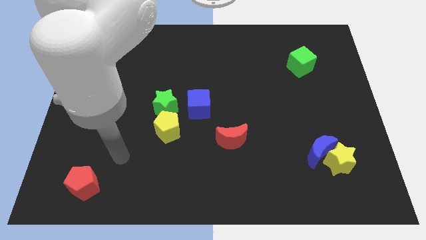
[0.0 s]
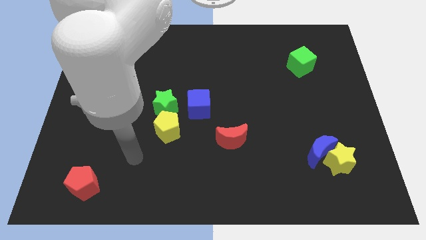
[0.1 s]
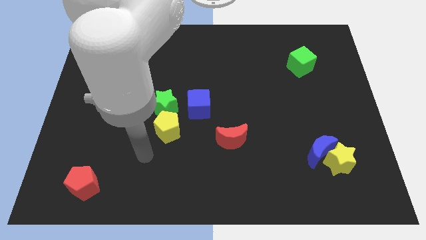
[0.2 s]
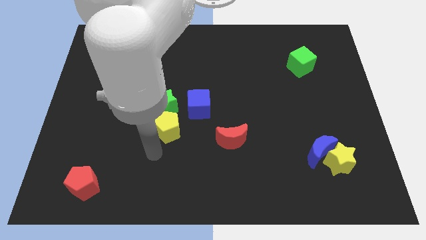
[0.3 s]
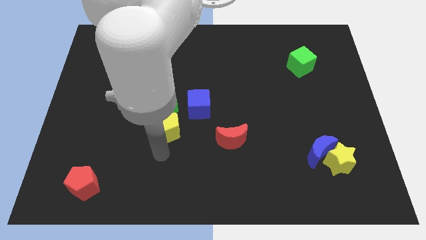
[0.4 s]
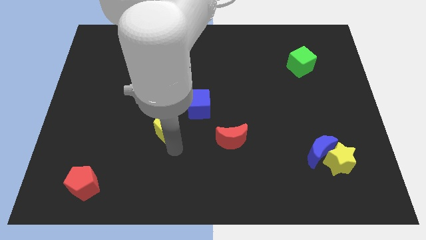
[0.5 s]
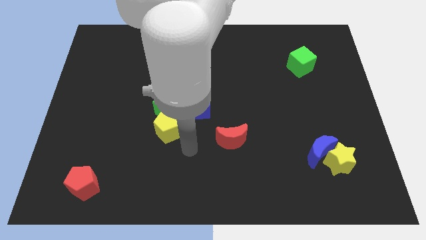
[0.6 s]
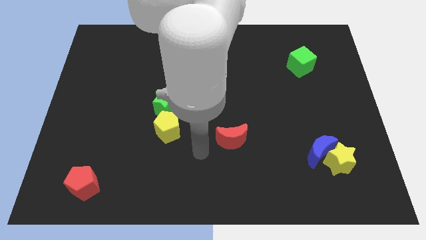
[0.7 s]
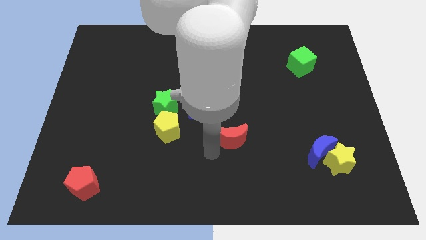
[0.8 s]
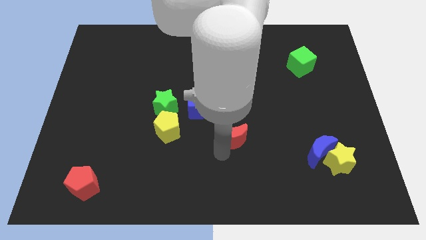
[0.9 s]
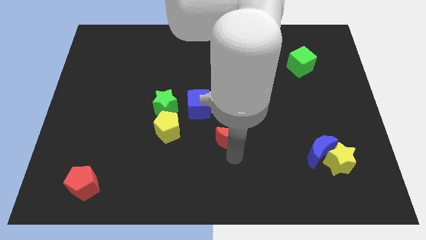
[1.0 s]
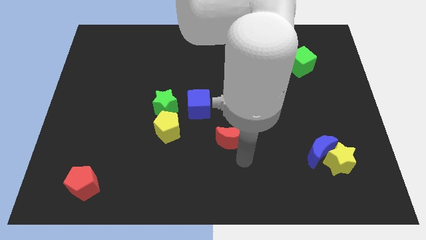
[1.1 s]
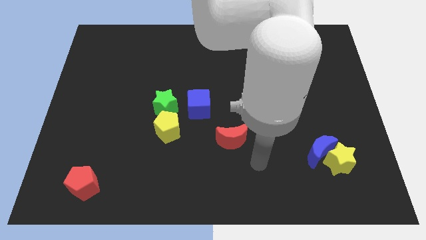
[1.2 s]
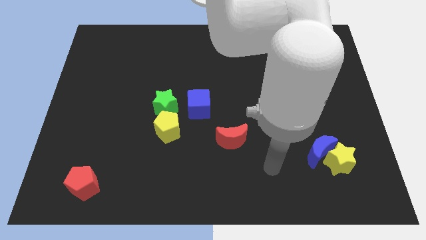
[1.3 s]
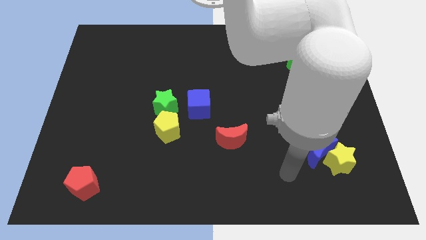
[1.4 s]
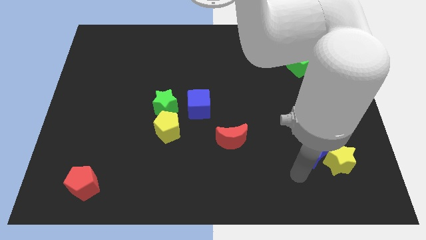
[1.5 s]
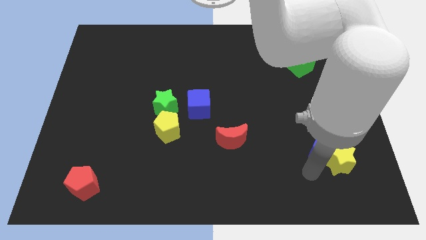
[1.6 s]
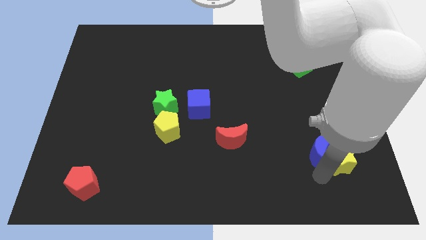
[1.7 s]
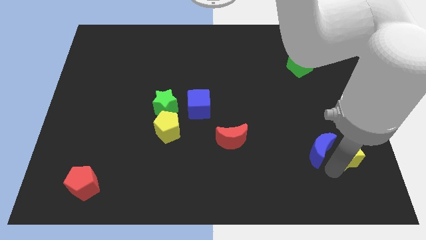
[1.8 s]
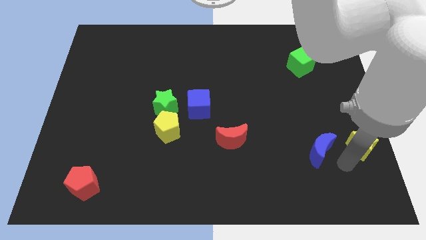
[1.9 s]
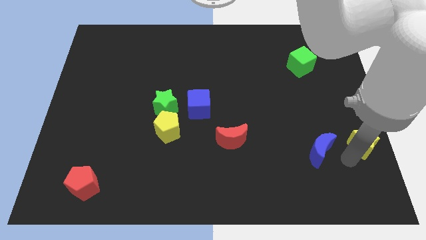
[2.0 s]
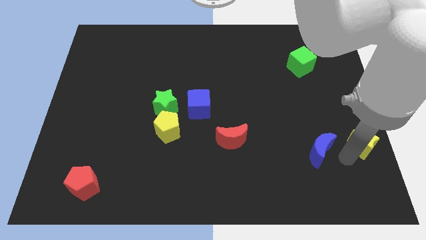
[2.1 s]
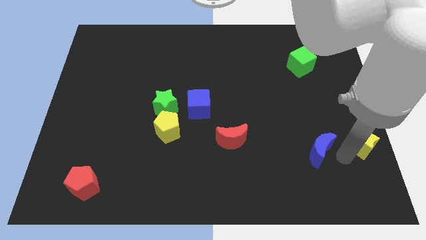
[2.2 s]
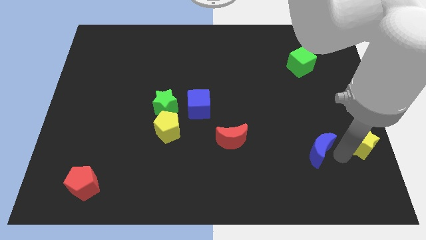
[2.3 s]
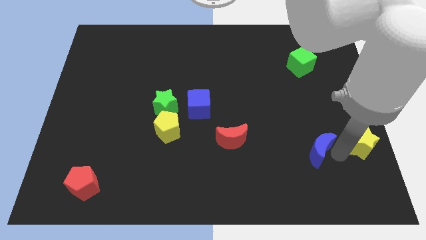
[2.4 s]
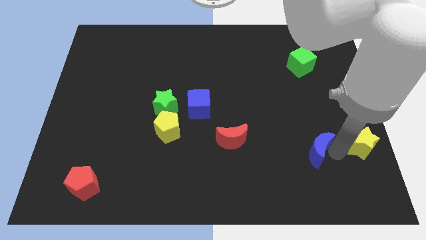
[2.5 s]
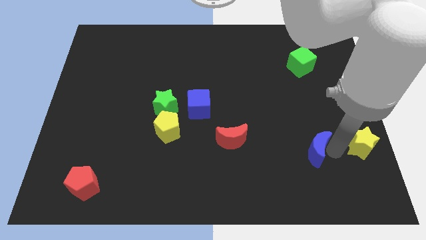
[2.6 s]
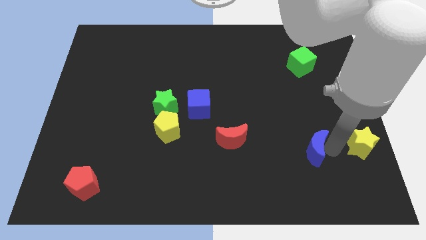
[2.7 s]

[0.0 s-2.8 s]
move the blue moon away from the yellow star

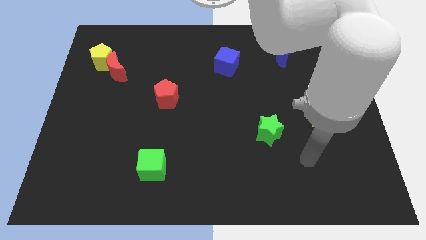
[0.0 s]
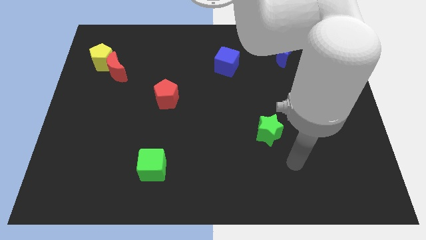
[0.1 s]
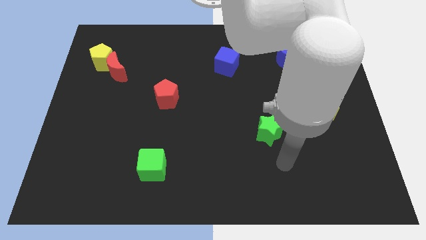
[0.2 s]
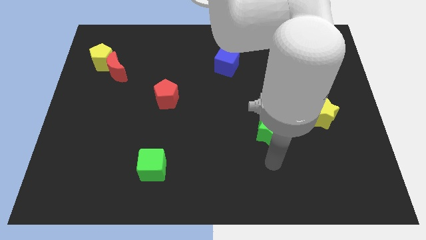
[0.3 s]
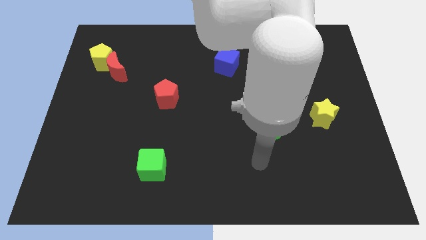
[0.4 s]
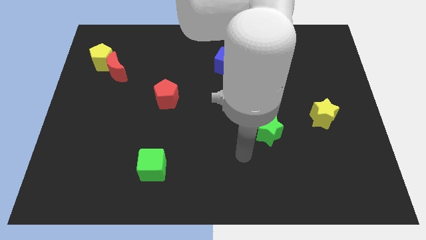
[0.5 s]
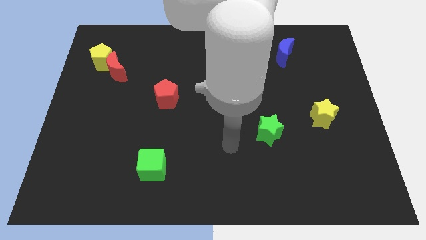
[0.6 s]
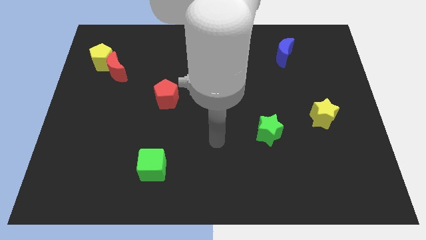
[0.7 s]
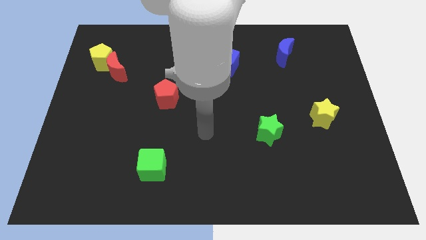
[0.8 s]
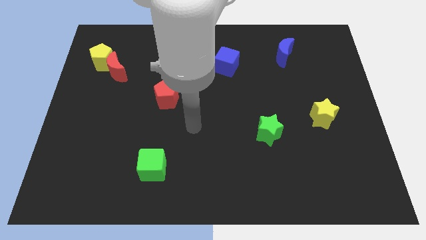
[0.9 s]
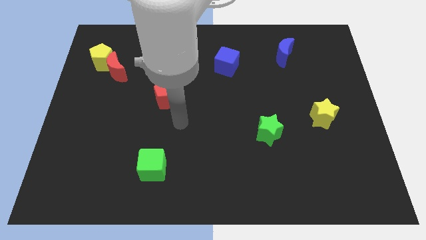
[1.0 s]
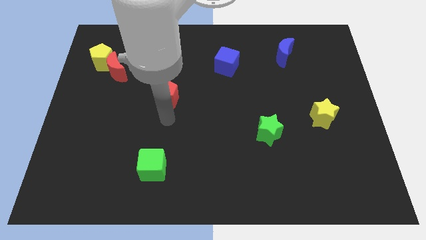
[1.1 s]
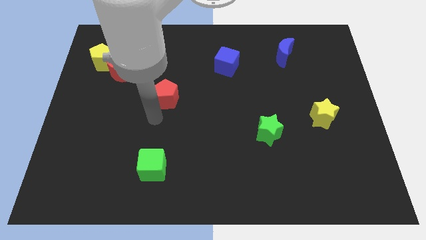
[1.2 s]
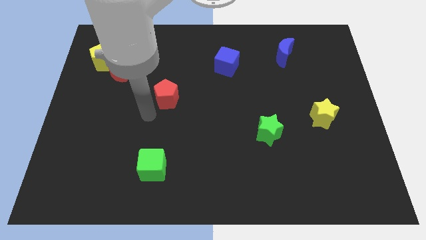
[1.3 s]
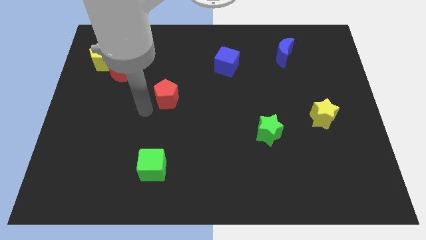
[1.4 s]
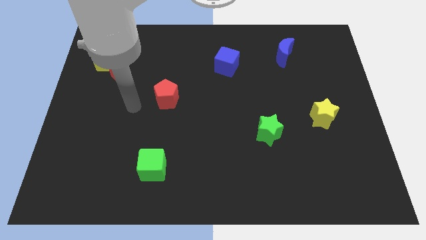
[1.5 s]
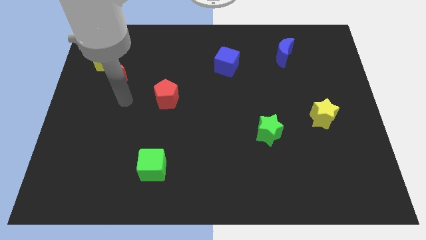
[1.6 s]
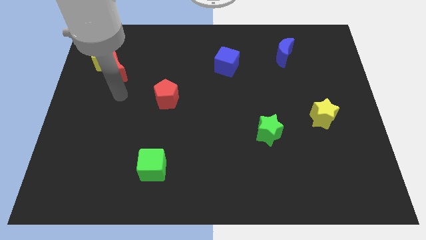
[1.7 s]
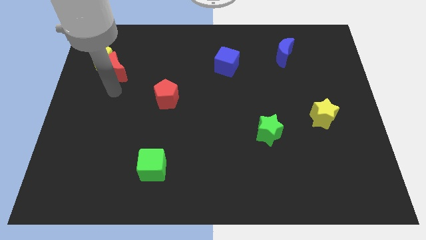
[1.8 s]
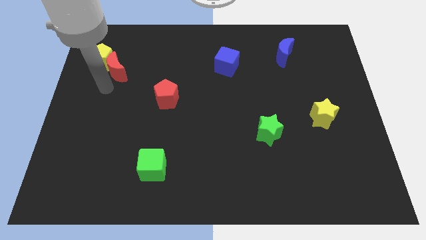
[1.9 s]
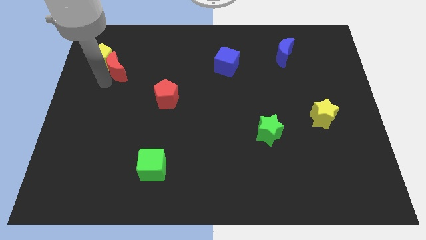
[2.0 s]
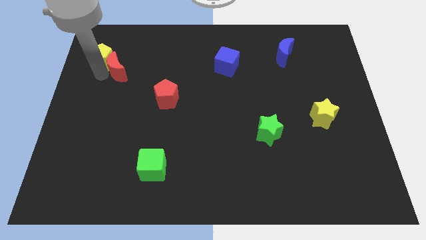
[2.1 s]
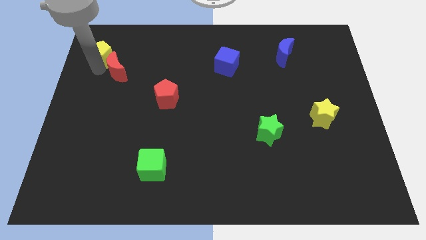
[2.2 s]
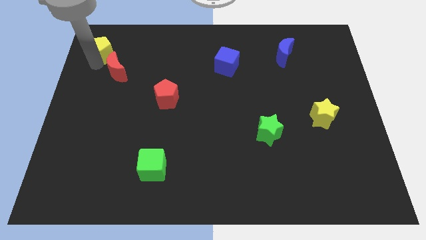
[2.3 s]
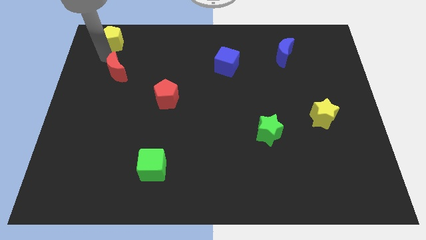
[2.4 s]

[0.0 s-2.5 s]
separate the red moon from the yellow pentagon

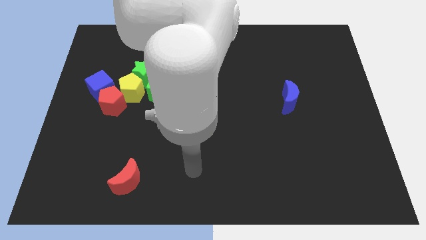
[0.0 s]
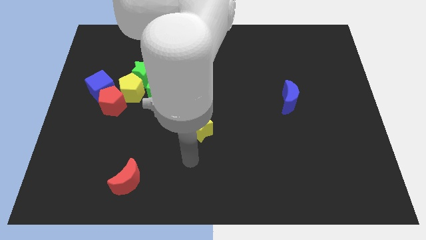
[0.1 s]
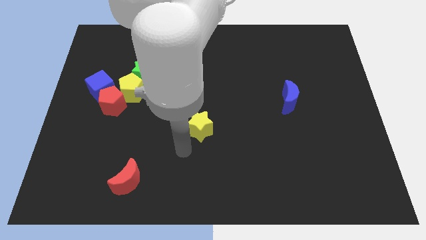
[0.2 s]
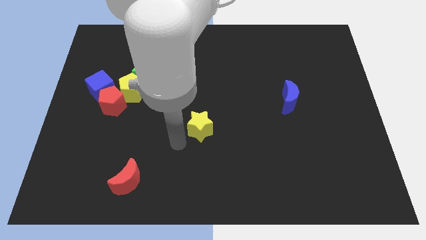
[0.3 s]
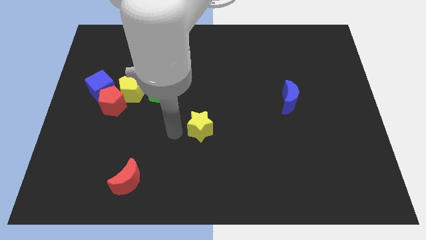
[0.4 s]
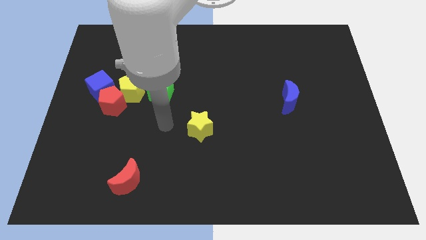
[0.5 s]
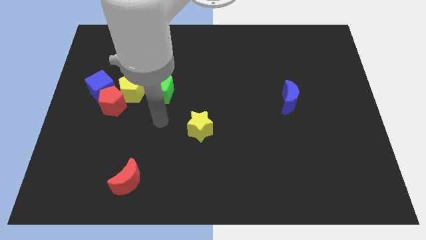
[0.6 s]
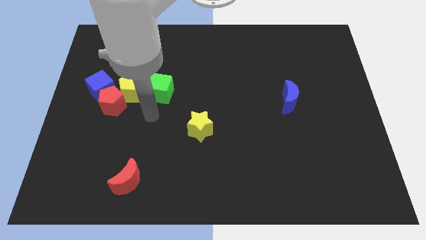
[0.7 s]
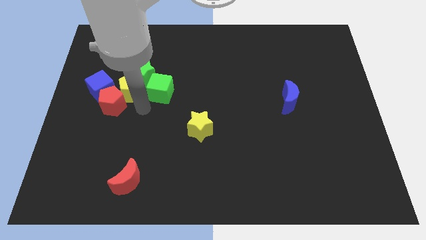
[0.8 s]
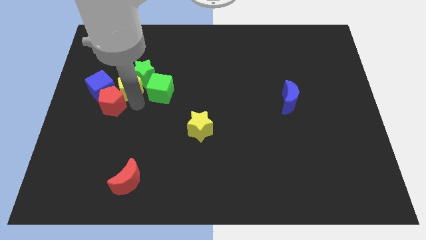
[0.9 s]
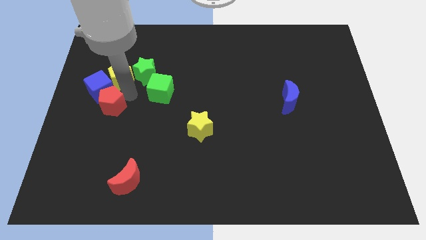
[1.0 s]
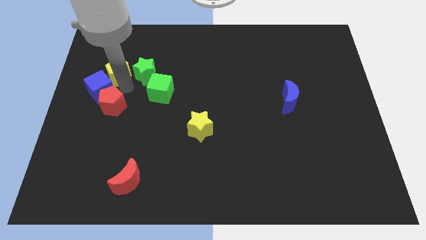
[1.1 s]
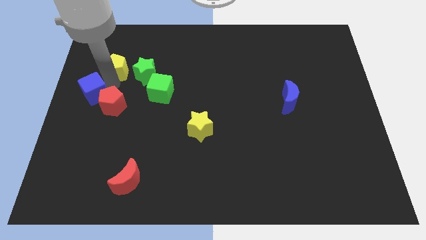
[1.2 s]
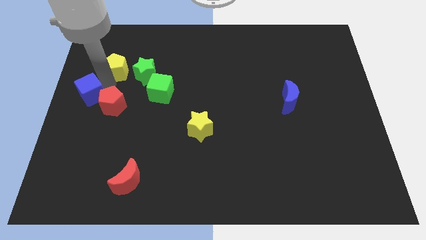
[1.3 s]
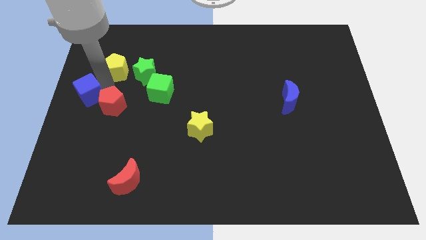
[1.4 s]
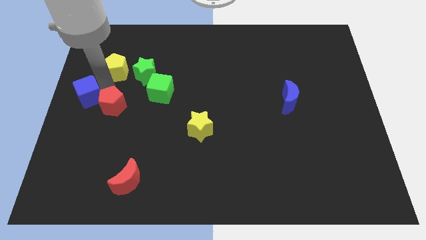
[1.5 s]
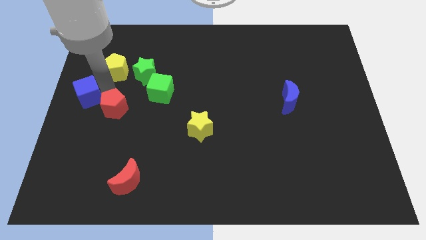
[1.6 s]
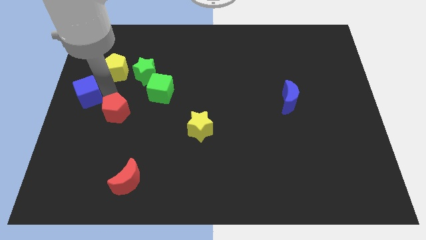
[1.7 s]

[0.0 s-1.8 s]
separate the red pentagon from the yellow pentagon and blue cube

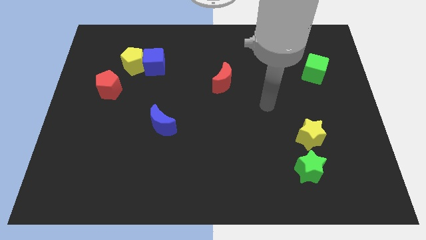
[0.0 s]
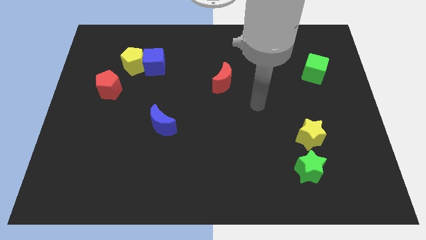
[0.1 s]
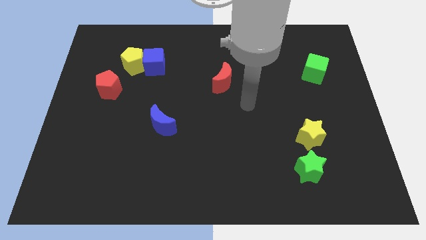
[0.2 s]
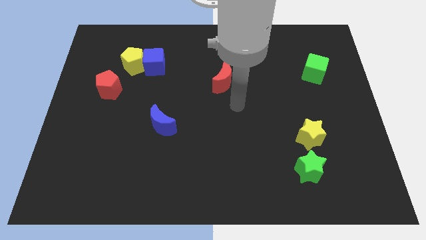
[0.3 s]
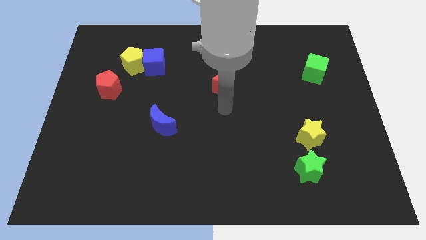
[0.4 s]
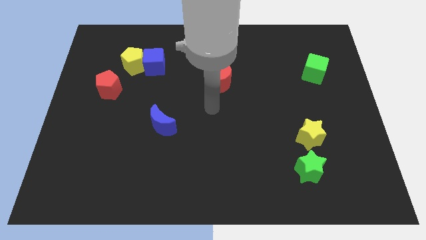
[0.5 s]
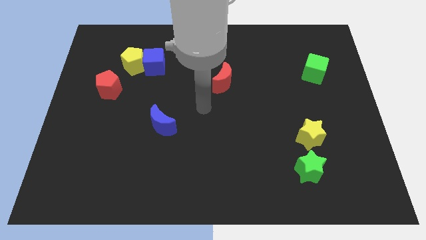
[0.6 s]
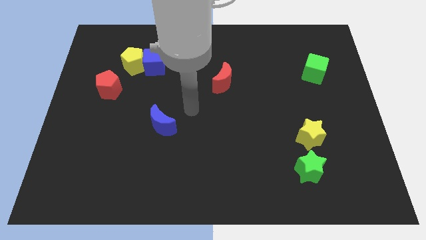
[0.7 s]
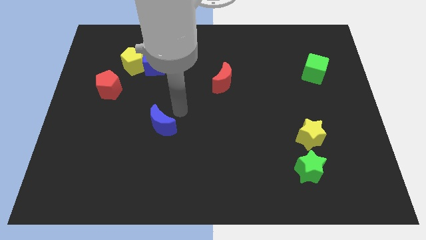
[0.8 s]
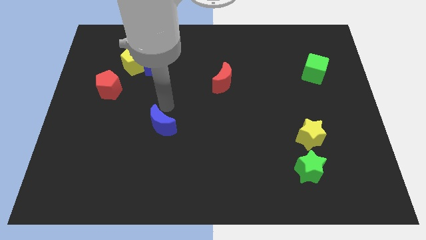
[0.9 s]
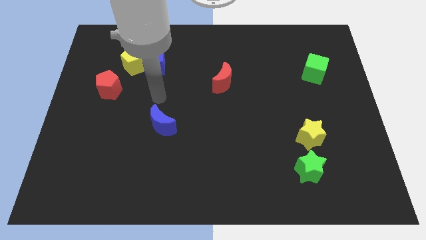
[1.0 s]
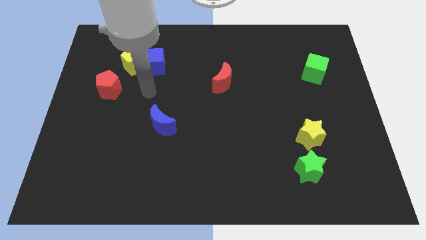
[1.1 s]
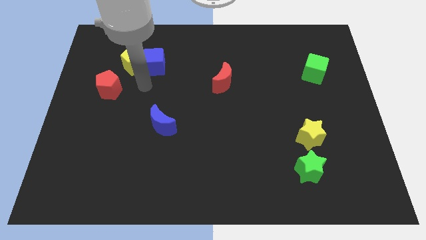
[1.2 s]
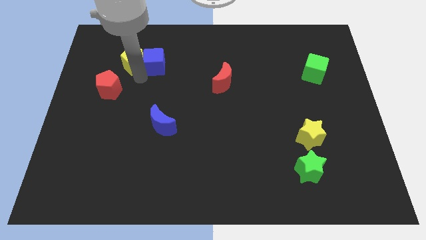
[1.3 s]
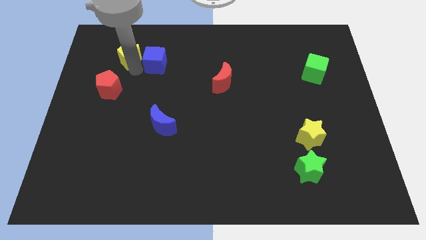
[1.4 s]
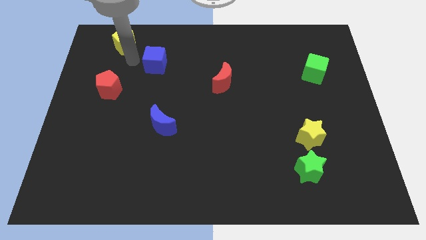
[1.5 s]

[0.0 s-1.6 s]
move the blue cube away from the yellow pentagon

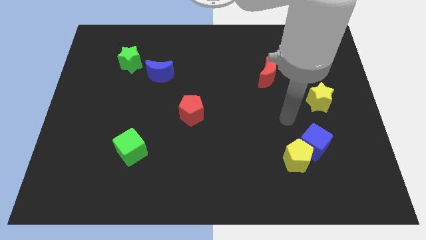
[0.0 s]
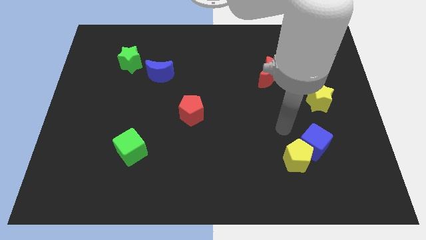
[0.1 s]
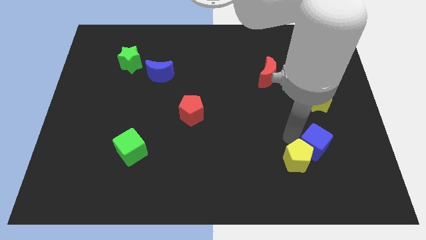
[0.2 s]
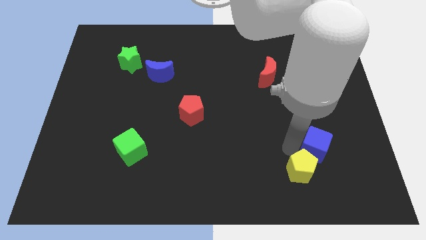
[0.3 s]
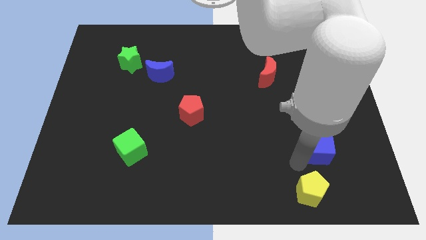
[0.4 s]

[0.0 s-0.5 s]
pull the blue cube apart from the yellow pentagon

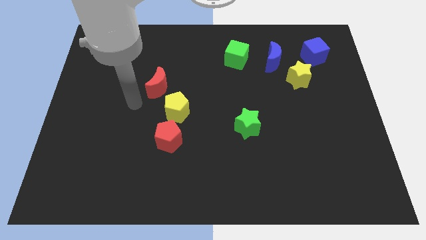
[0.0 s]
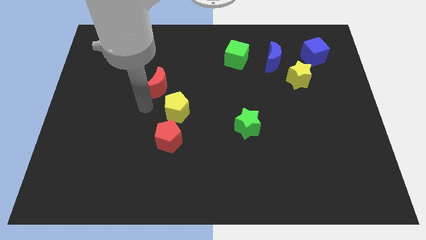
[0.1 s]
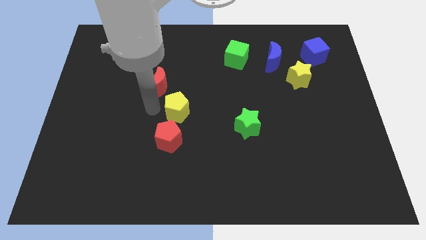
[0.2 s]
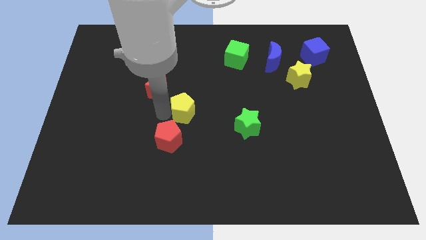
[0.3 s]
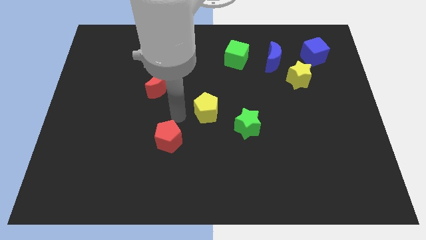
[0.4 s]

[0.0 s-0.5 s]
pull the red pentagon apart from the yellow pentagon
